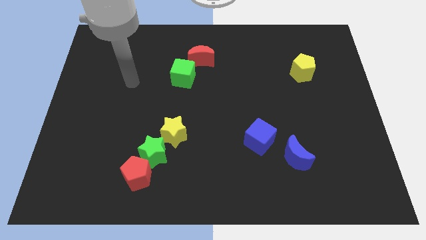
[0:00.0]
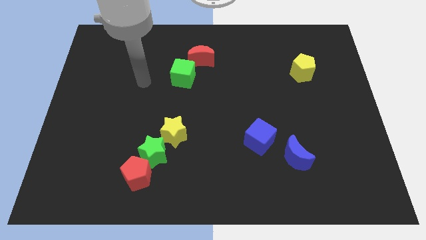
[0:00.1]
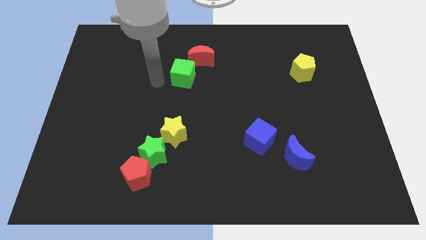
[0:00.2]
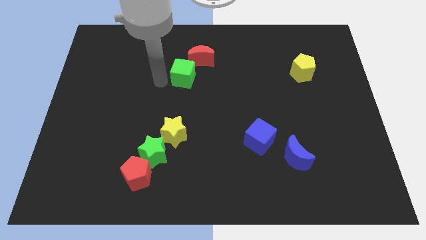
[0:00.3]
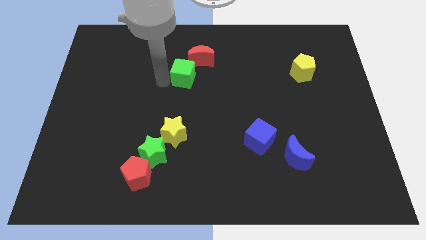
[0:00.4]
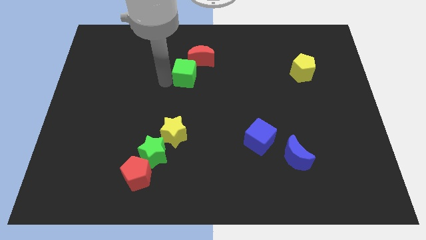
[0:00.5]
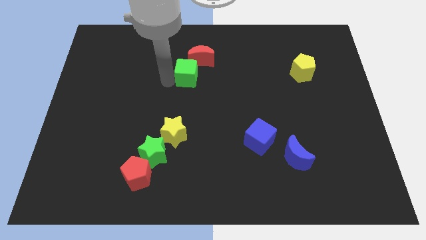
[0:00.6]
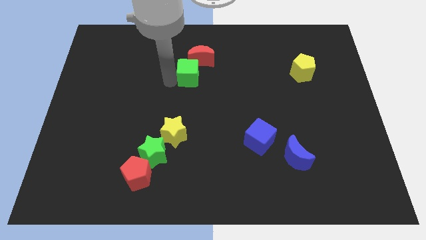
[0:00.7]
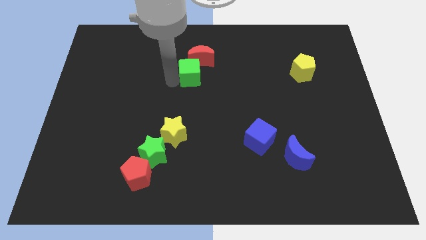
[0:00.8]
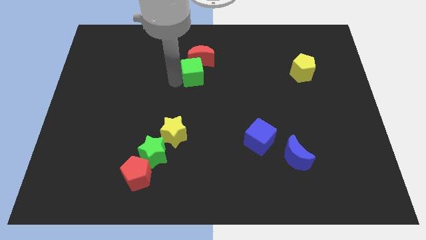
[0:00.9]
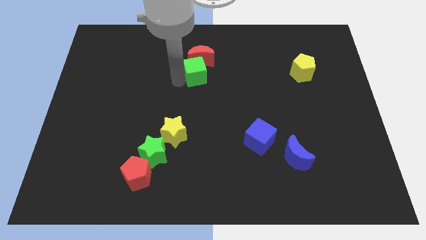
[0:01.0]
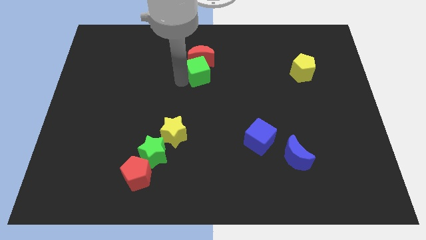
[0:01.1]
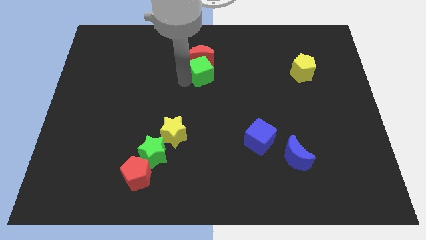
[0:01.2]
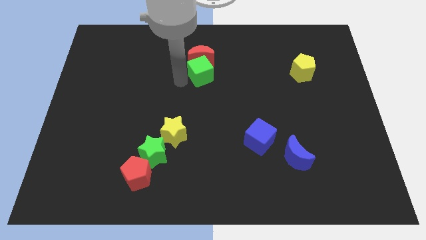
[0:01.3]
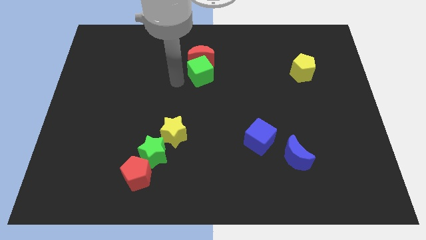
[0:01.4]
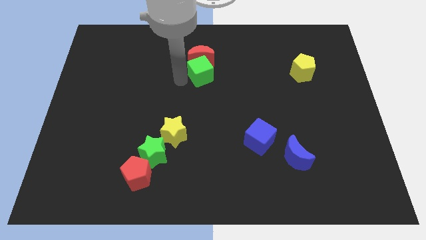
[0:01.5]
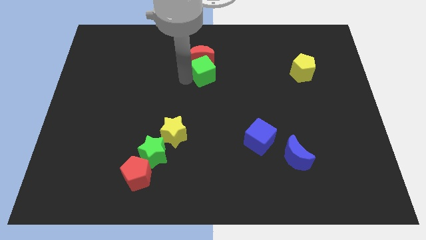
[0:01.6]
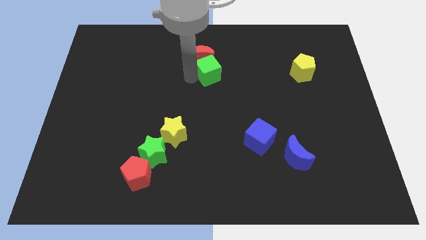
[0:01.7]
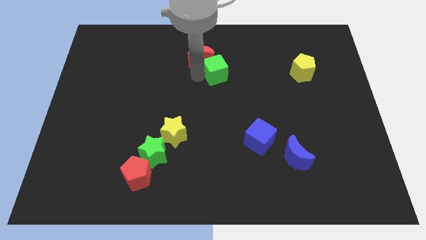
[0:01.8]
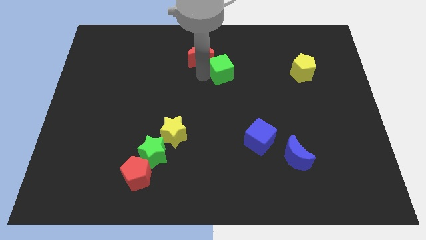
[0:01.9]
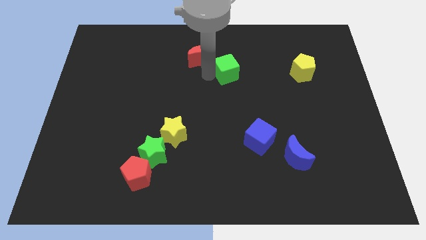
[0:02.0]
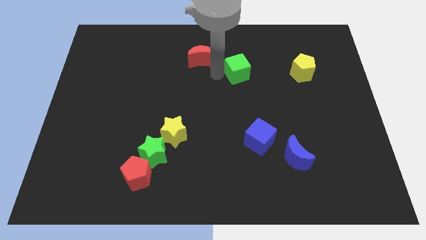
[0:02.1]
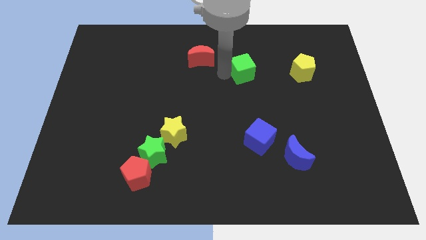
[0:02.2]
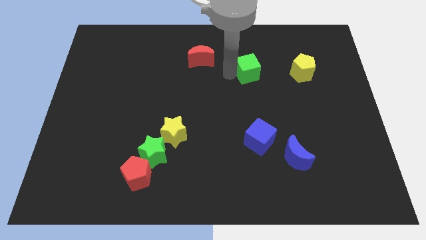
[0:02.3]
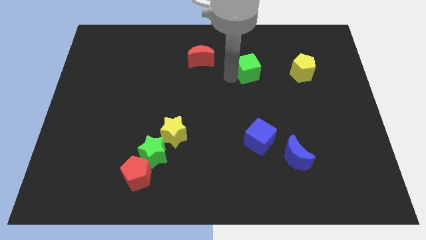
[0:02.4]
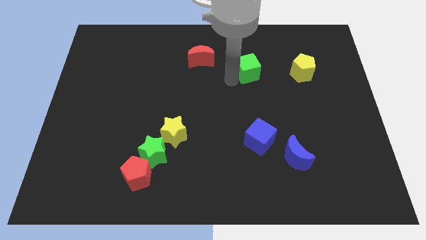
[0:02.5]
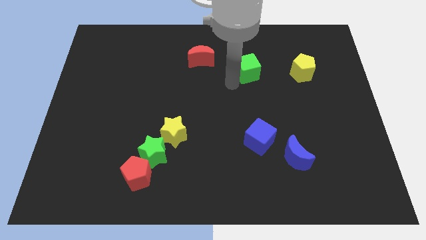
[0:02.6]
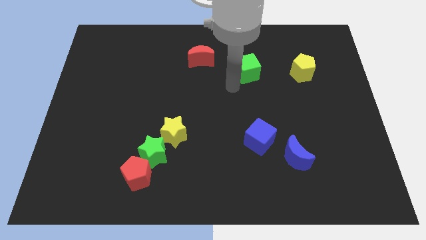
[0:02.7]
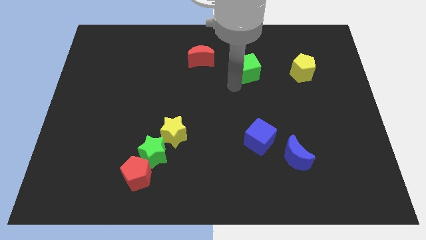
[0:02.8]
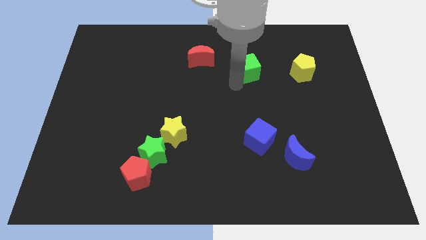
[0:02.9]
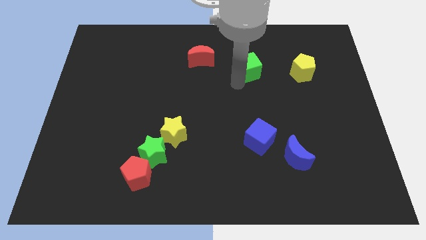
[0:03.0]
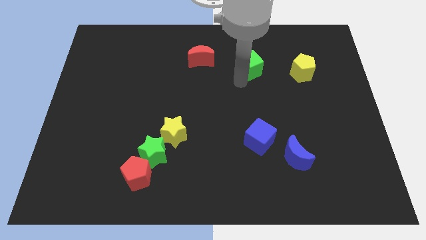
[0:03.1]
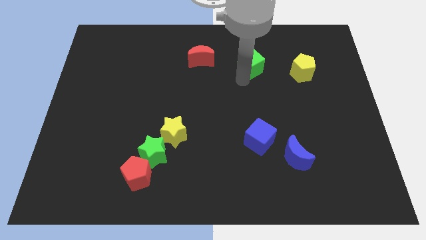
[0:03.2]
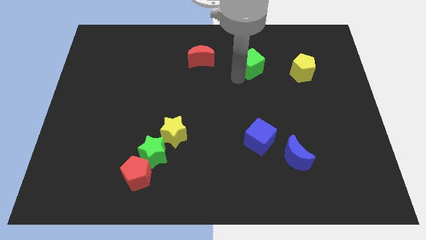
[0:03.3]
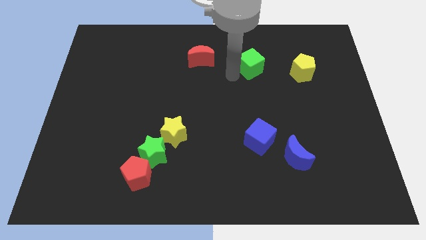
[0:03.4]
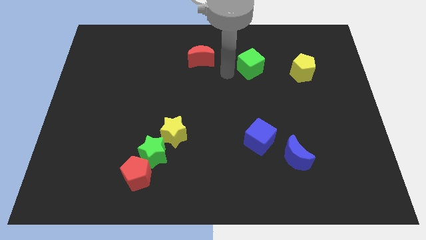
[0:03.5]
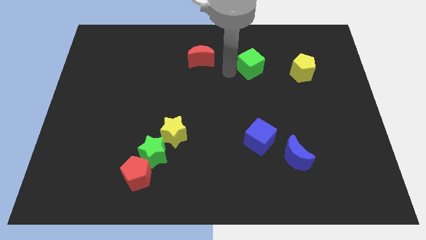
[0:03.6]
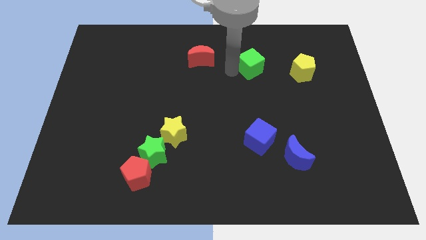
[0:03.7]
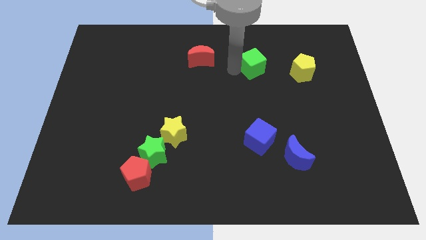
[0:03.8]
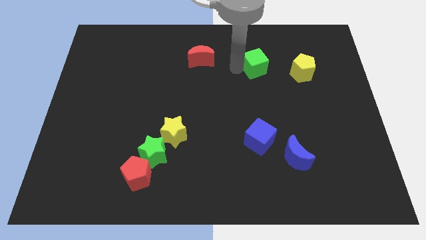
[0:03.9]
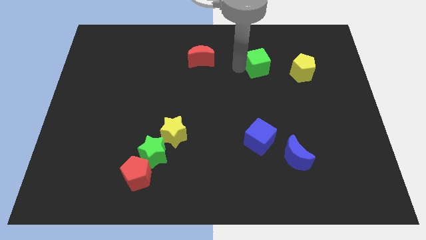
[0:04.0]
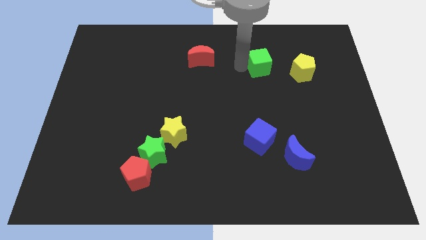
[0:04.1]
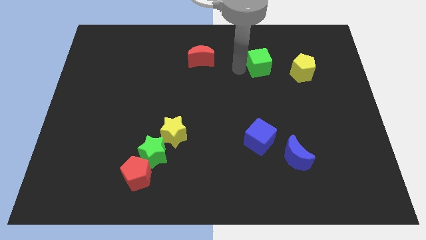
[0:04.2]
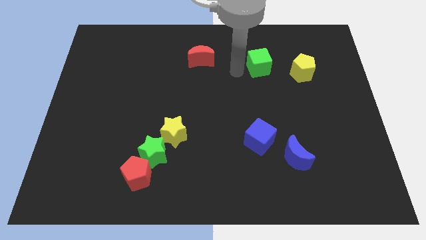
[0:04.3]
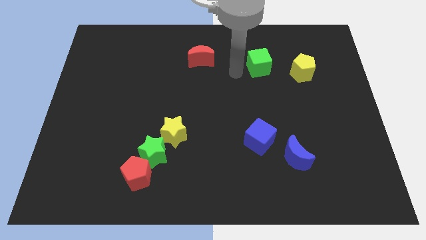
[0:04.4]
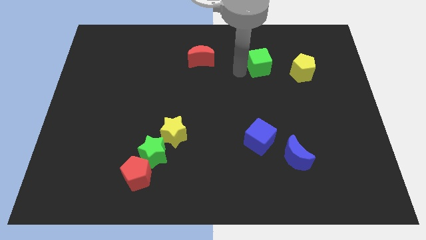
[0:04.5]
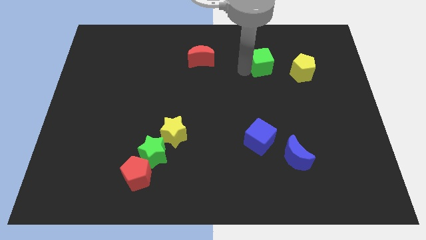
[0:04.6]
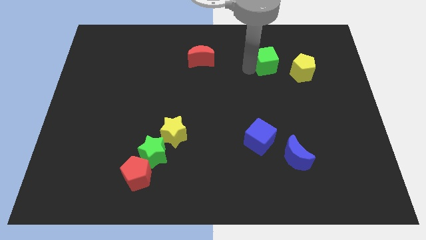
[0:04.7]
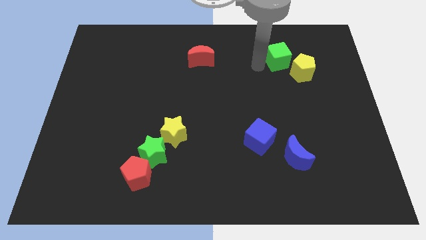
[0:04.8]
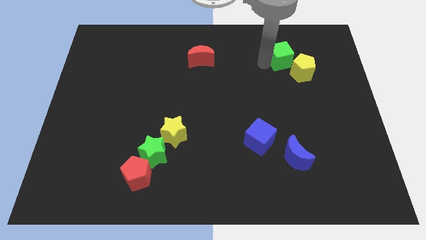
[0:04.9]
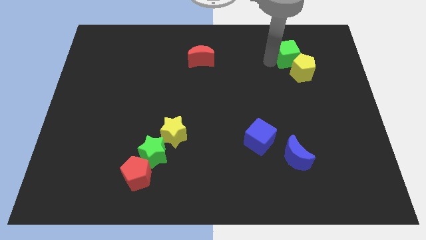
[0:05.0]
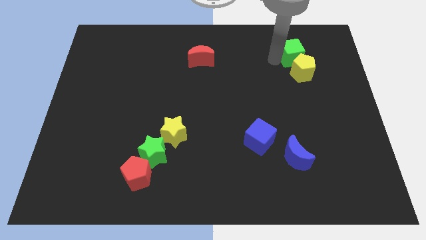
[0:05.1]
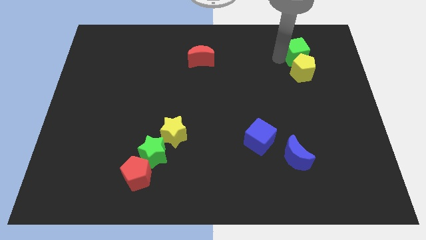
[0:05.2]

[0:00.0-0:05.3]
put the green cube diagonally up and to the right of the yellow pentagon

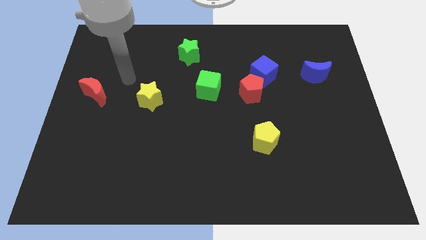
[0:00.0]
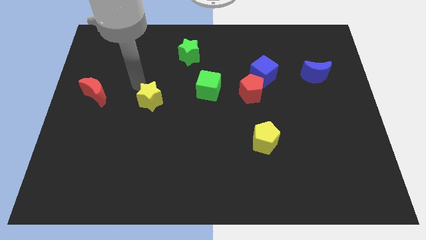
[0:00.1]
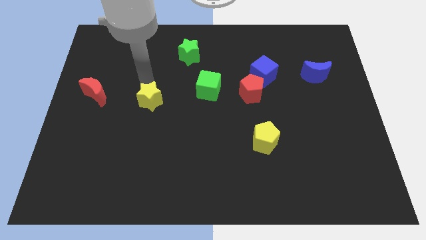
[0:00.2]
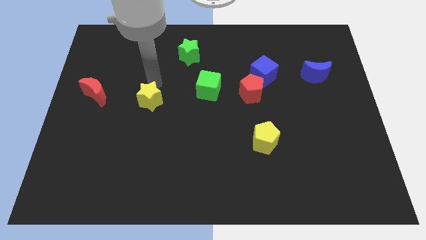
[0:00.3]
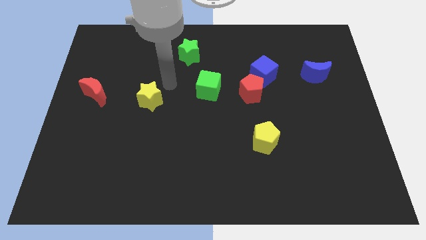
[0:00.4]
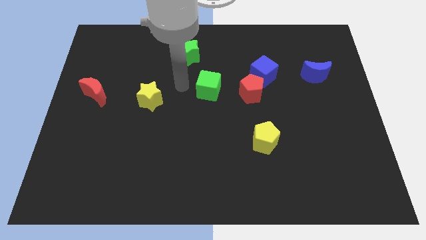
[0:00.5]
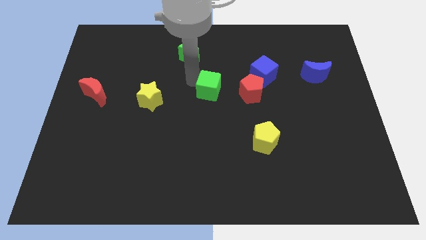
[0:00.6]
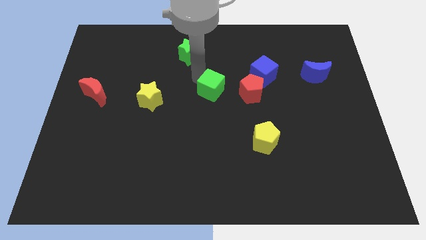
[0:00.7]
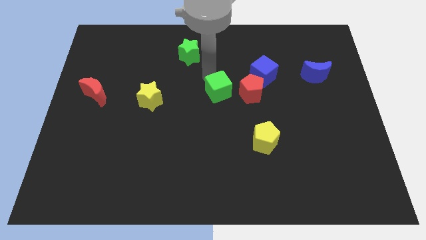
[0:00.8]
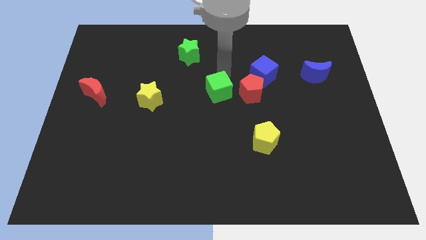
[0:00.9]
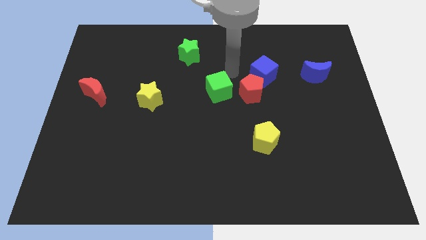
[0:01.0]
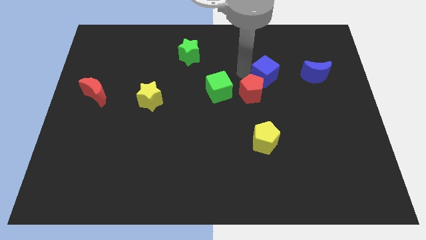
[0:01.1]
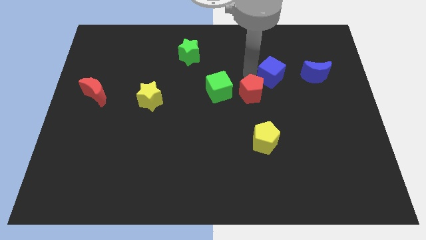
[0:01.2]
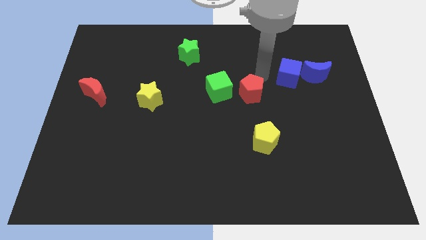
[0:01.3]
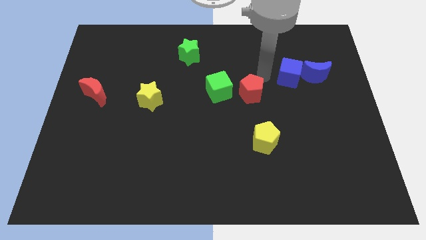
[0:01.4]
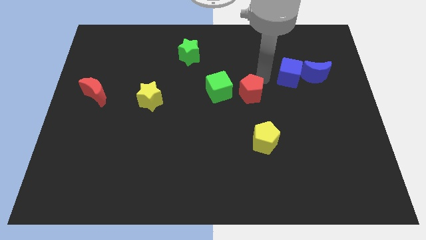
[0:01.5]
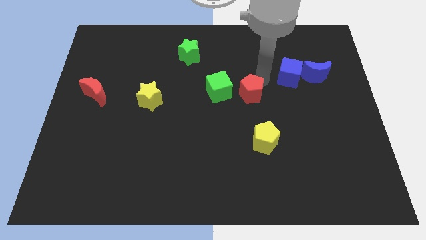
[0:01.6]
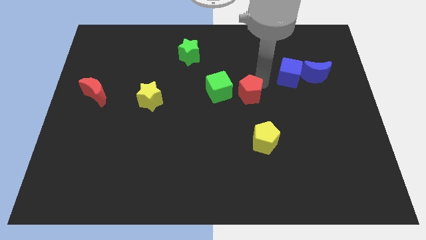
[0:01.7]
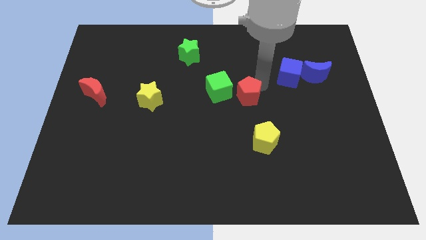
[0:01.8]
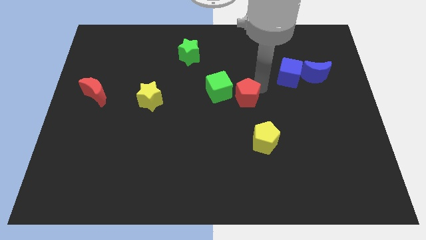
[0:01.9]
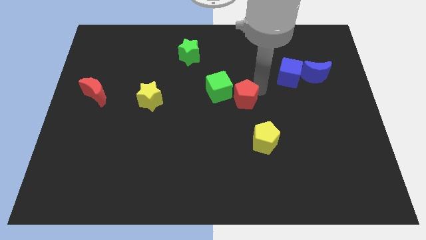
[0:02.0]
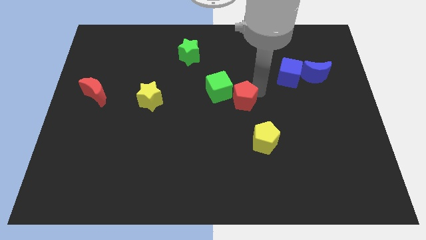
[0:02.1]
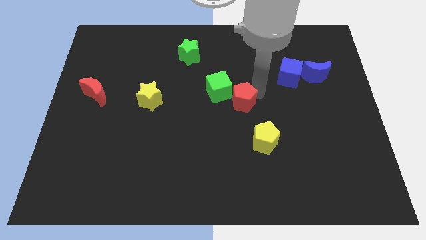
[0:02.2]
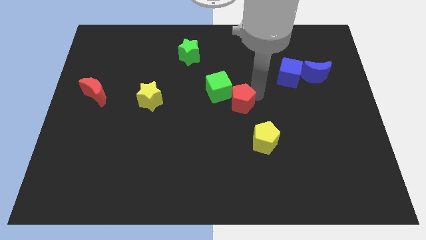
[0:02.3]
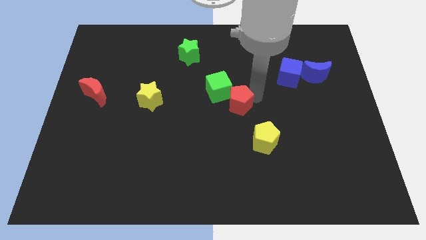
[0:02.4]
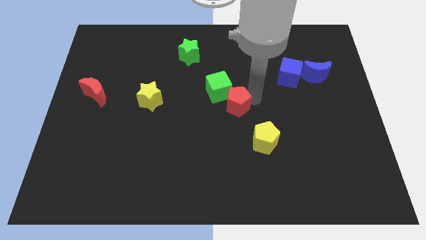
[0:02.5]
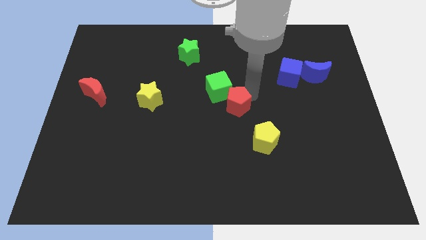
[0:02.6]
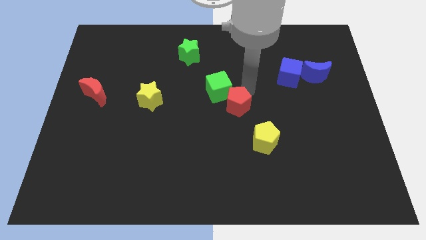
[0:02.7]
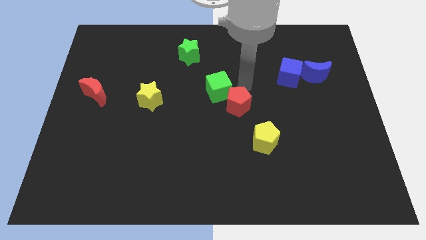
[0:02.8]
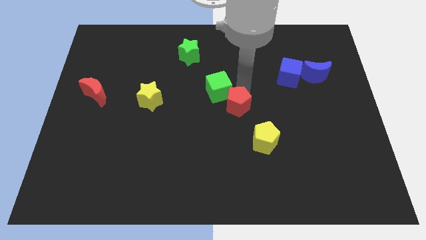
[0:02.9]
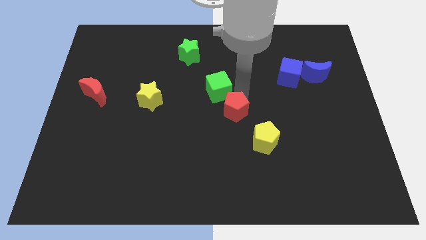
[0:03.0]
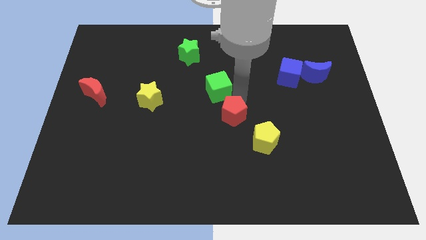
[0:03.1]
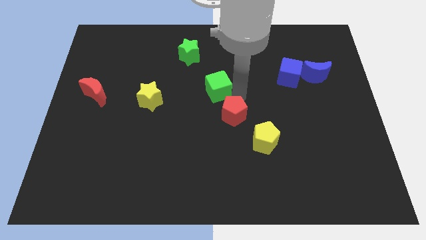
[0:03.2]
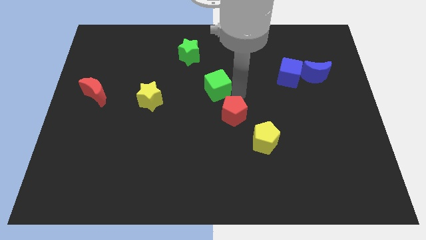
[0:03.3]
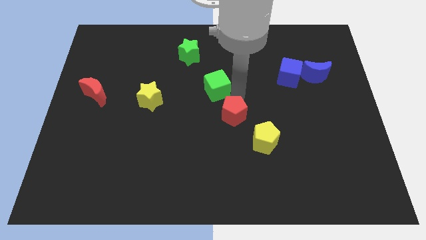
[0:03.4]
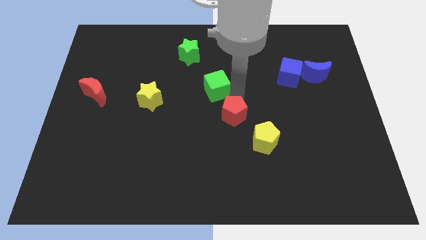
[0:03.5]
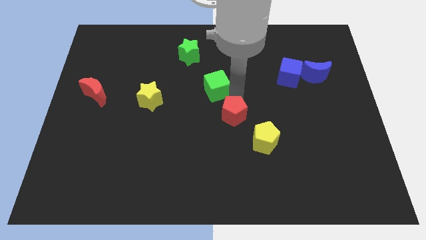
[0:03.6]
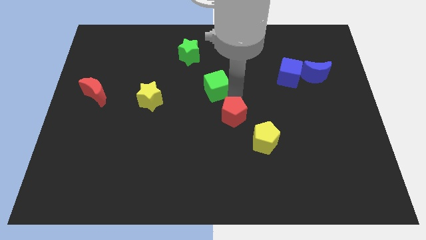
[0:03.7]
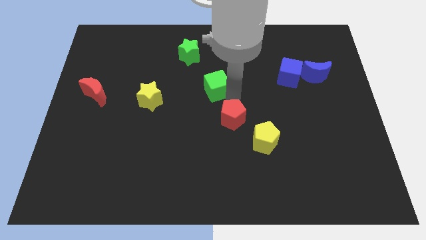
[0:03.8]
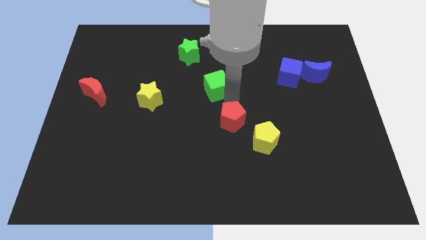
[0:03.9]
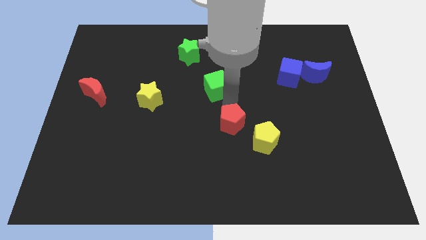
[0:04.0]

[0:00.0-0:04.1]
push the red pentagon just left of the yellow pentagon
